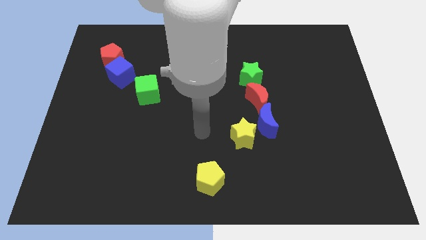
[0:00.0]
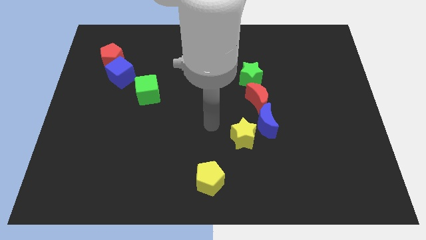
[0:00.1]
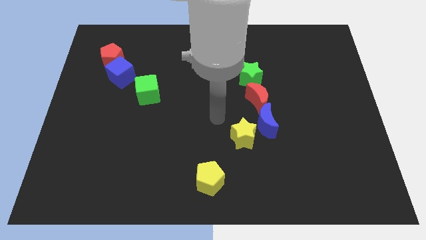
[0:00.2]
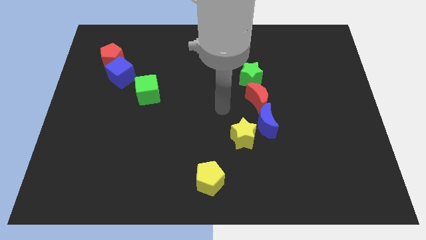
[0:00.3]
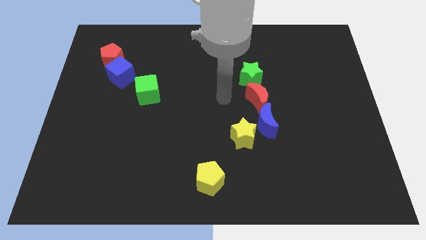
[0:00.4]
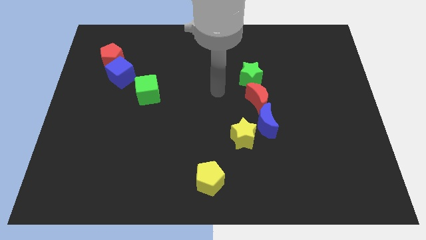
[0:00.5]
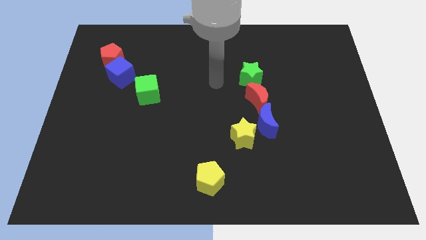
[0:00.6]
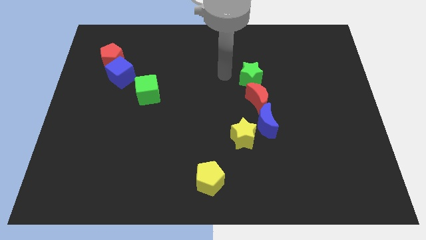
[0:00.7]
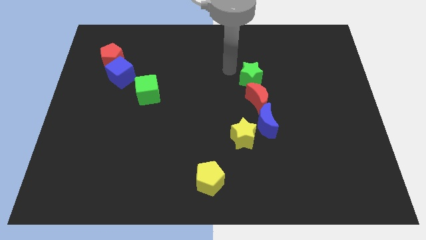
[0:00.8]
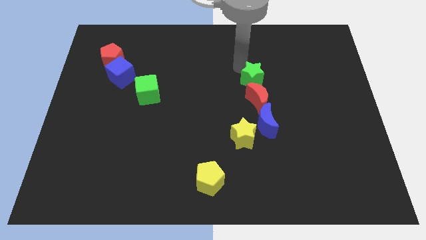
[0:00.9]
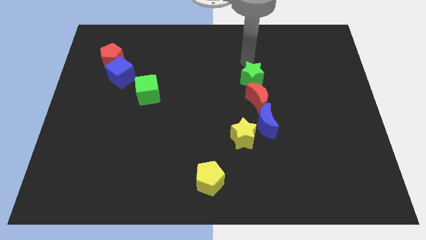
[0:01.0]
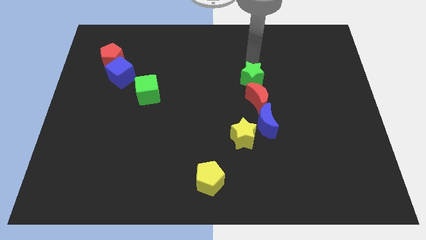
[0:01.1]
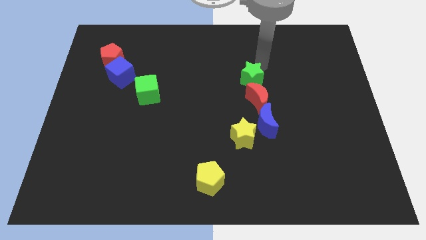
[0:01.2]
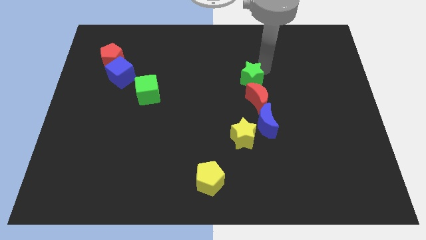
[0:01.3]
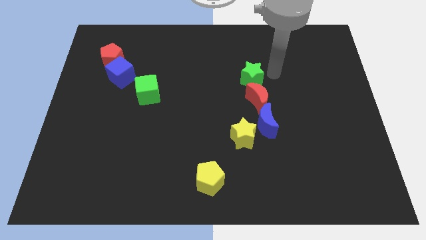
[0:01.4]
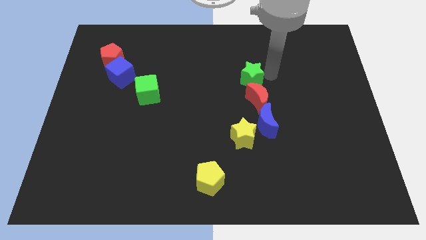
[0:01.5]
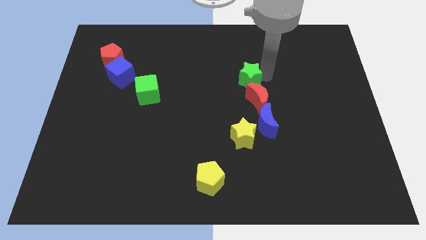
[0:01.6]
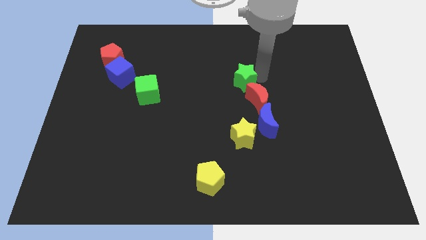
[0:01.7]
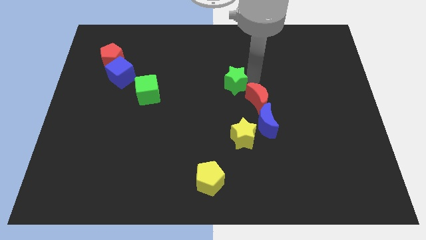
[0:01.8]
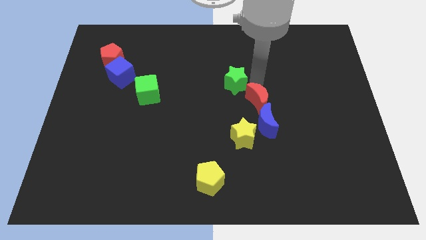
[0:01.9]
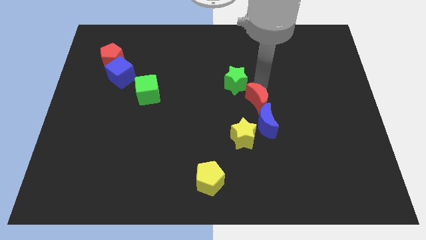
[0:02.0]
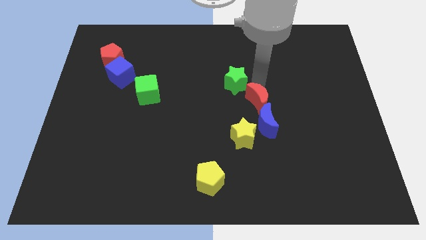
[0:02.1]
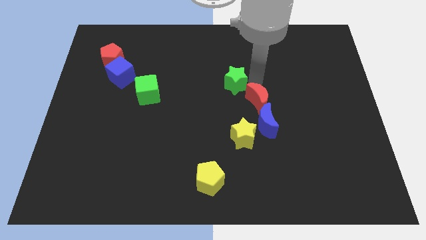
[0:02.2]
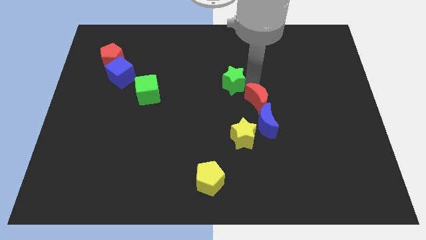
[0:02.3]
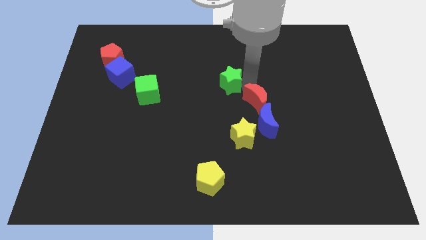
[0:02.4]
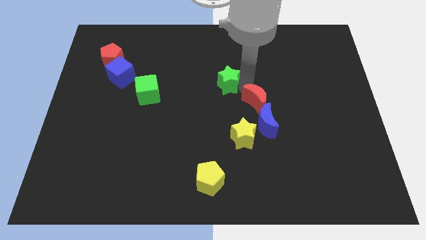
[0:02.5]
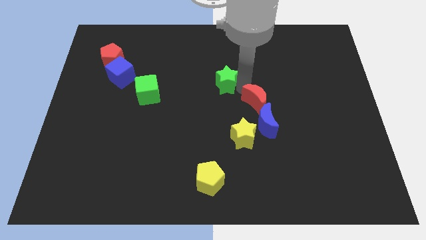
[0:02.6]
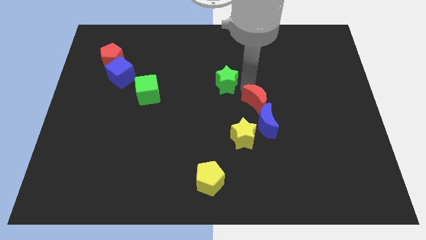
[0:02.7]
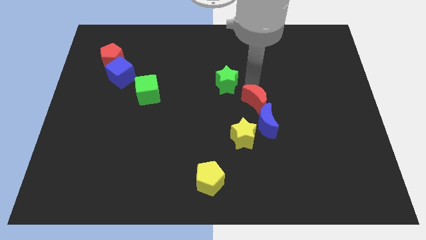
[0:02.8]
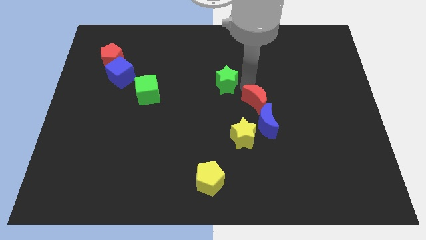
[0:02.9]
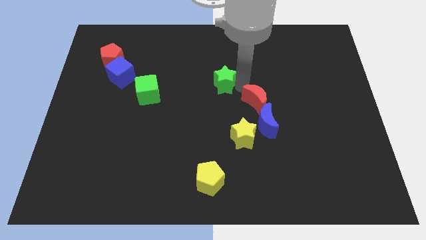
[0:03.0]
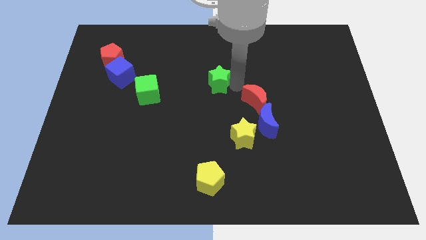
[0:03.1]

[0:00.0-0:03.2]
slightly push the green star to the left

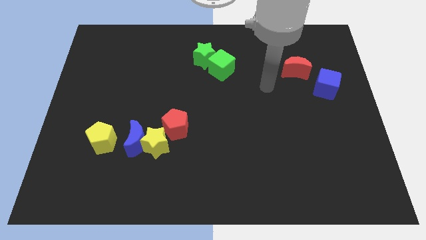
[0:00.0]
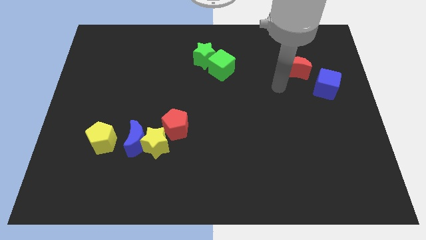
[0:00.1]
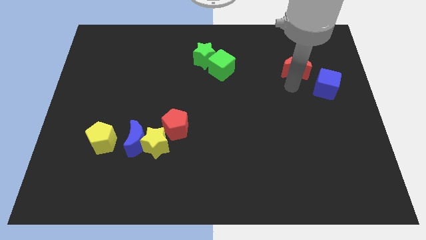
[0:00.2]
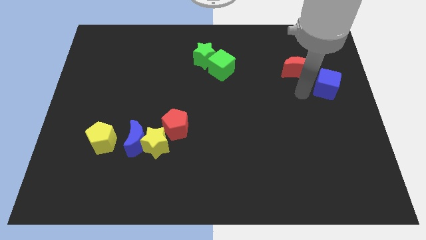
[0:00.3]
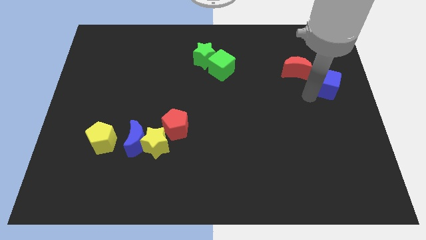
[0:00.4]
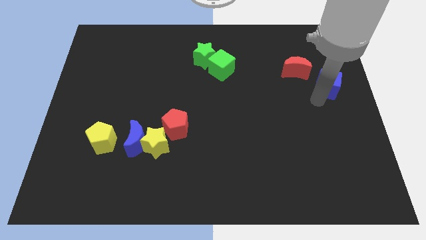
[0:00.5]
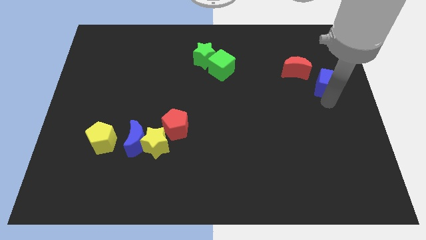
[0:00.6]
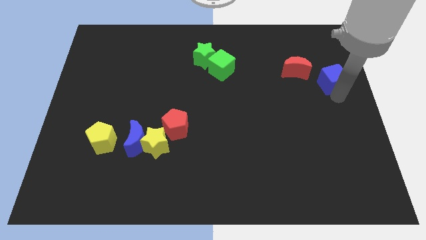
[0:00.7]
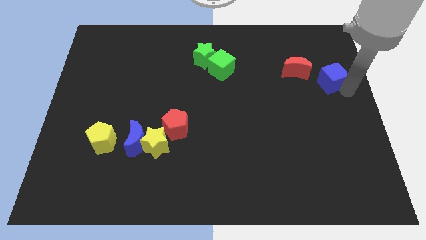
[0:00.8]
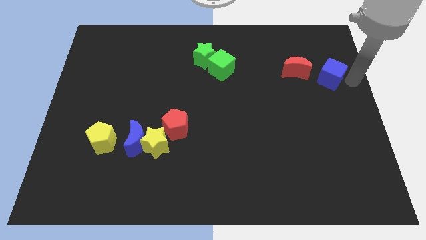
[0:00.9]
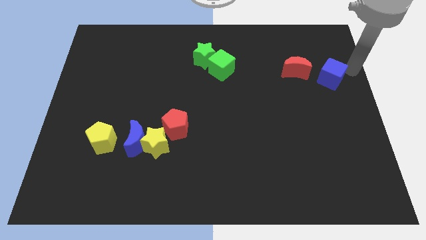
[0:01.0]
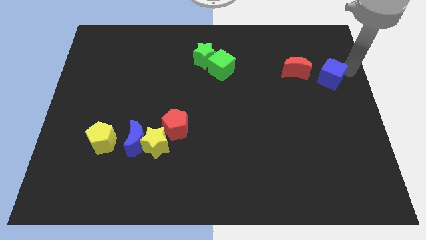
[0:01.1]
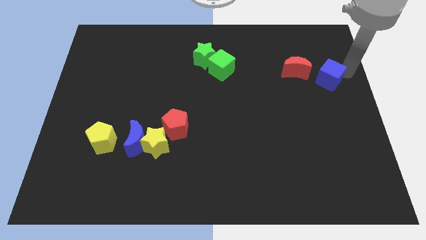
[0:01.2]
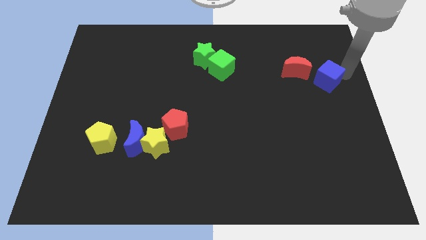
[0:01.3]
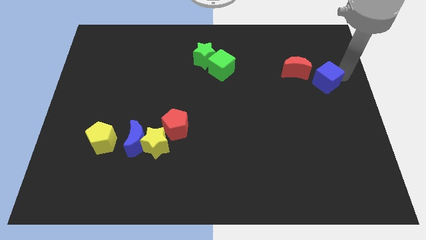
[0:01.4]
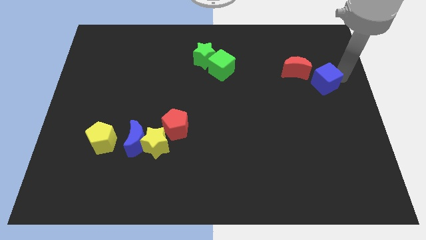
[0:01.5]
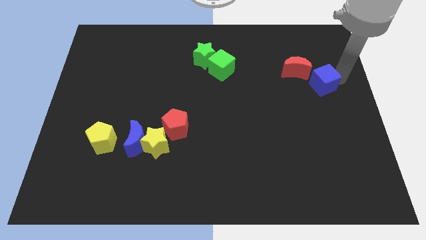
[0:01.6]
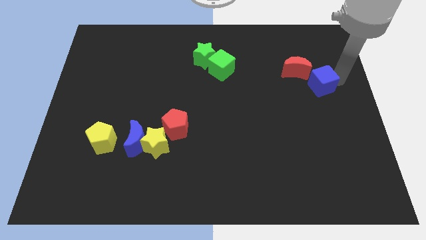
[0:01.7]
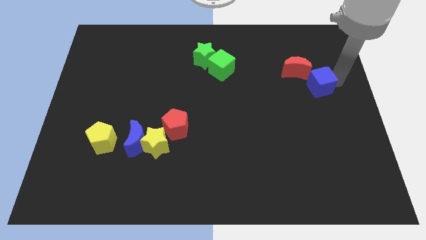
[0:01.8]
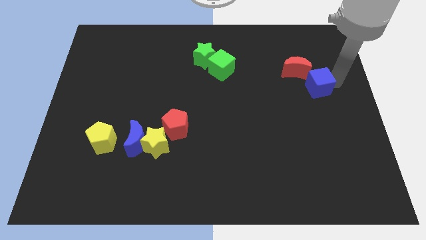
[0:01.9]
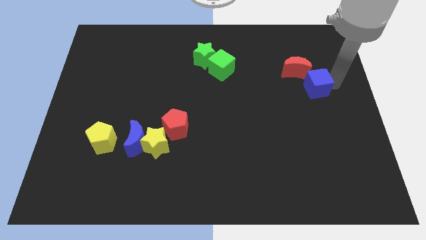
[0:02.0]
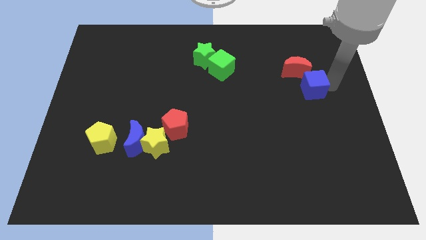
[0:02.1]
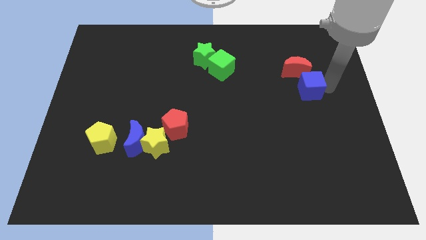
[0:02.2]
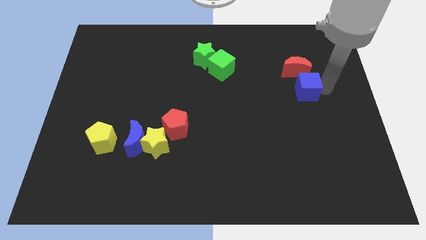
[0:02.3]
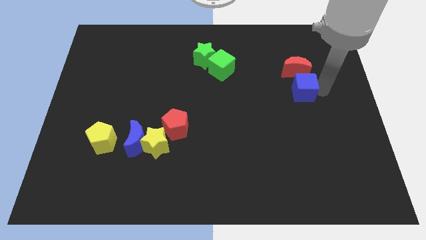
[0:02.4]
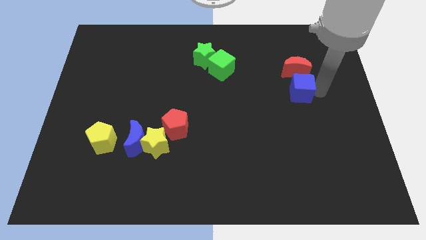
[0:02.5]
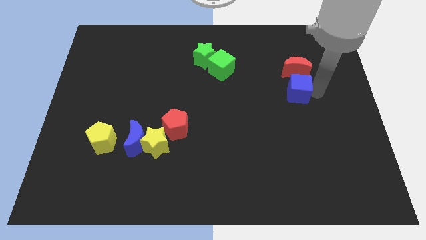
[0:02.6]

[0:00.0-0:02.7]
slightly slide the blue cube to the left

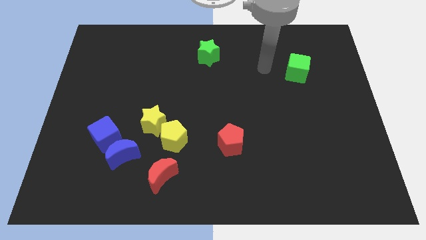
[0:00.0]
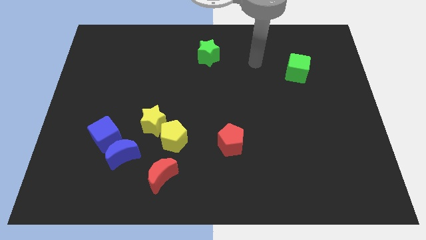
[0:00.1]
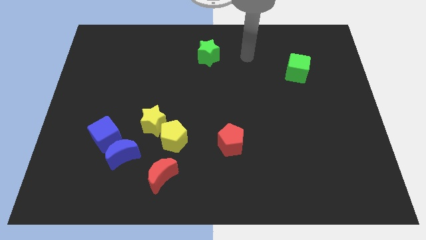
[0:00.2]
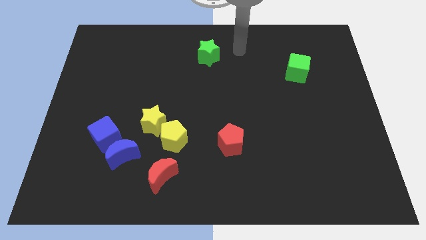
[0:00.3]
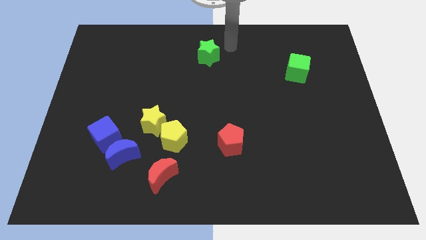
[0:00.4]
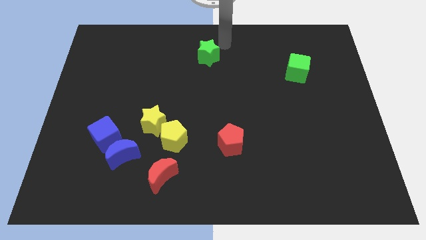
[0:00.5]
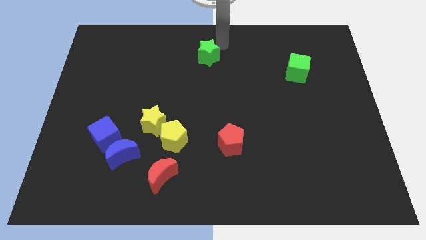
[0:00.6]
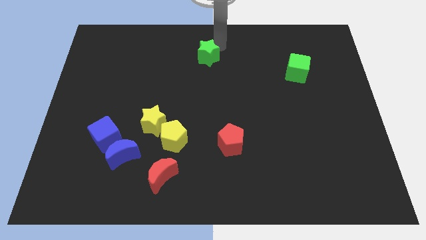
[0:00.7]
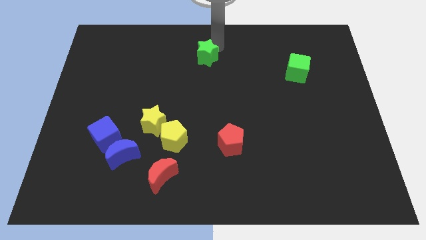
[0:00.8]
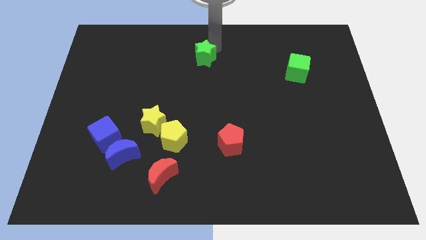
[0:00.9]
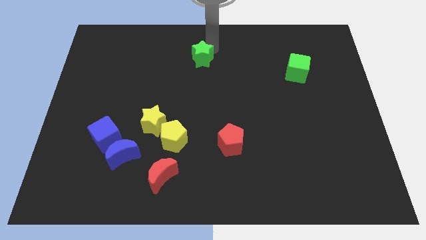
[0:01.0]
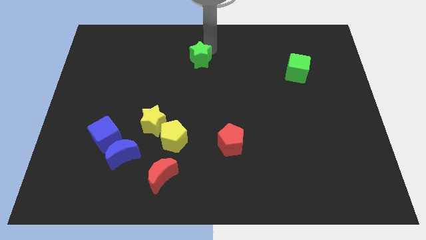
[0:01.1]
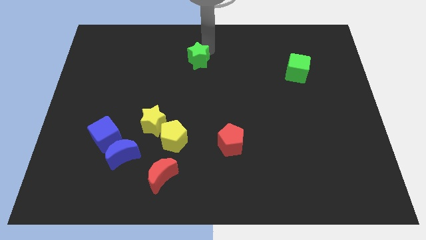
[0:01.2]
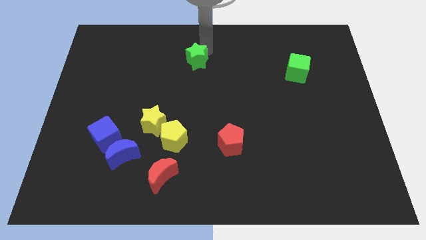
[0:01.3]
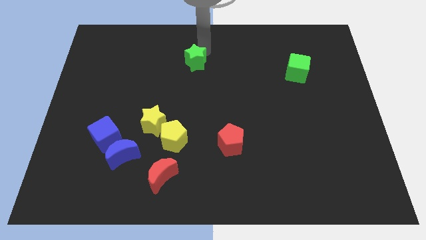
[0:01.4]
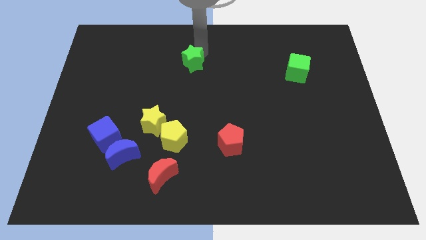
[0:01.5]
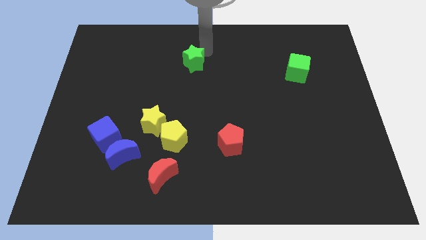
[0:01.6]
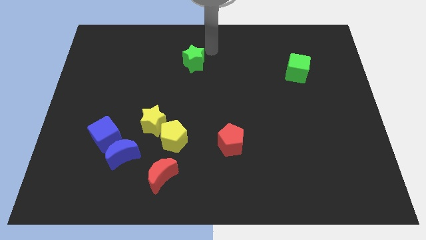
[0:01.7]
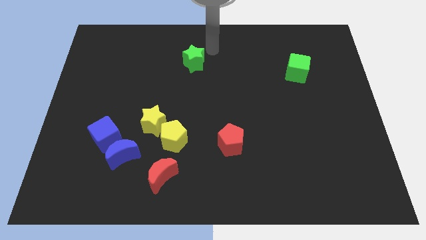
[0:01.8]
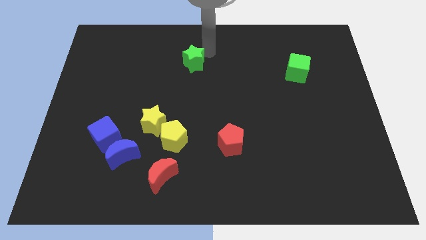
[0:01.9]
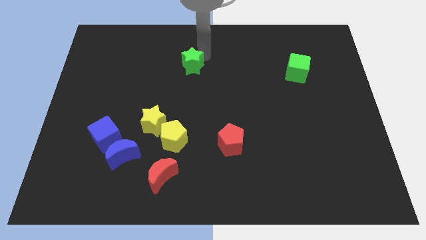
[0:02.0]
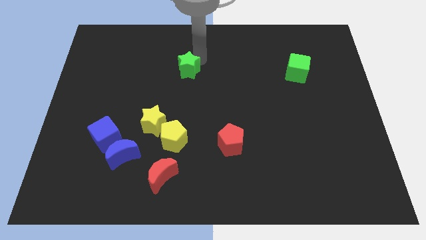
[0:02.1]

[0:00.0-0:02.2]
slide the green star down and left slightly
